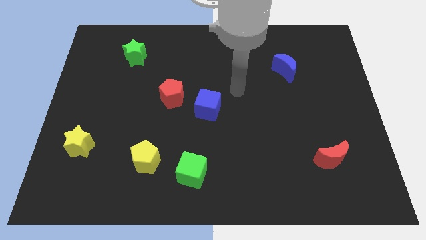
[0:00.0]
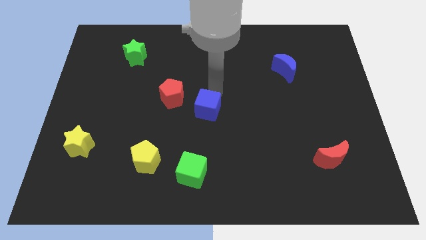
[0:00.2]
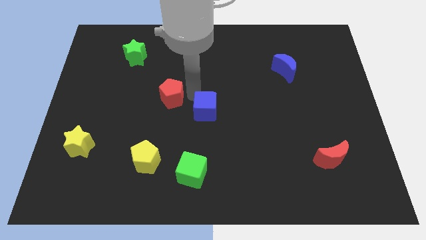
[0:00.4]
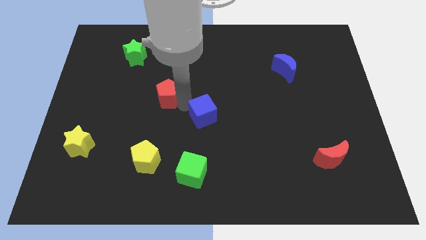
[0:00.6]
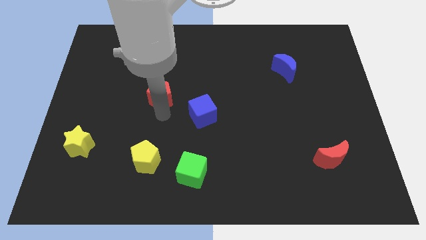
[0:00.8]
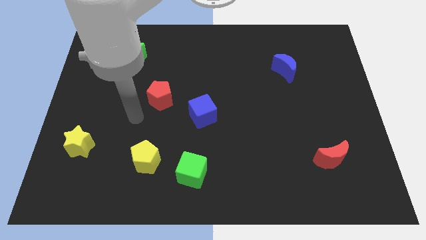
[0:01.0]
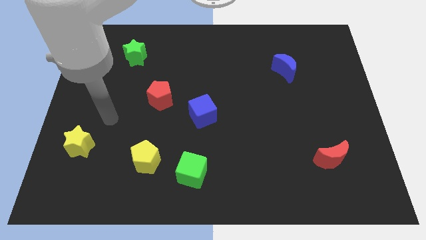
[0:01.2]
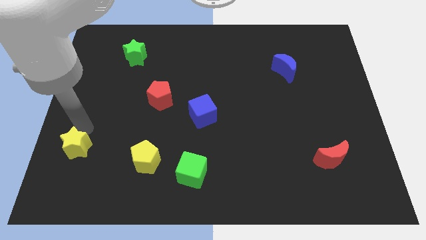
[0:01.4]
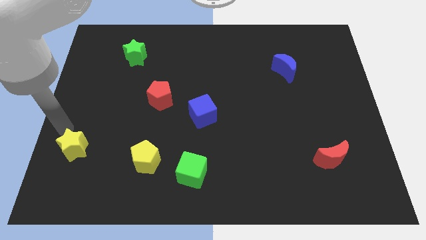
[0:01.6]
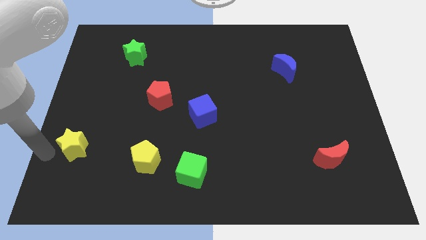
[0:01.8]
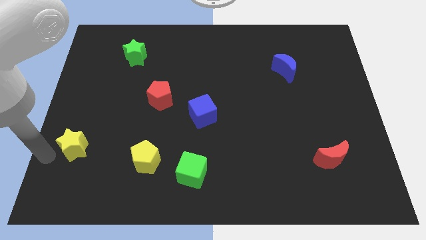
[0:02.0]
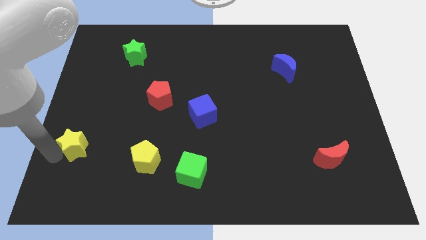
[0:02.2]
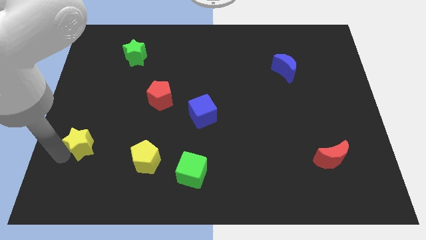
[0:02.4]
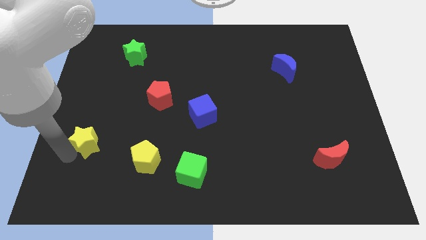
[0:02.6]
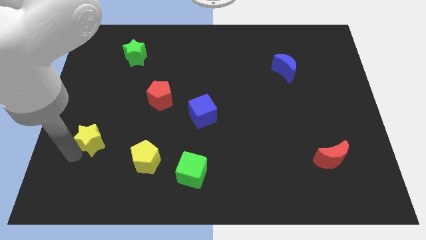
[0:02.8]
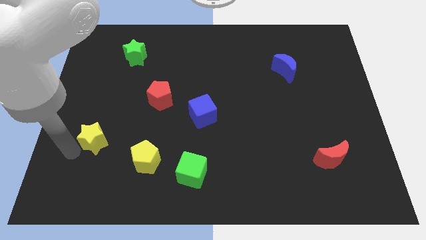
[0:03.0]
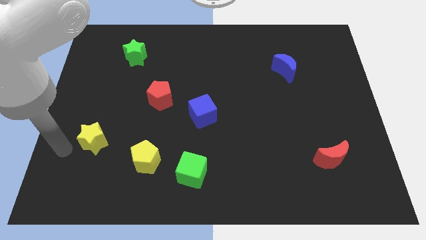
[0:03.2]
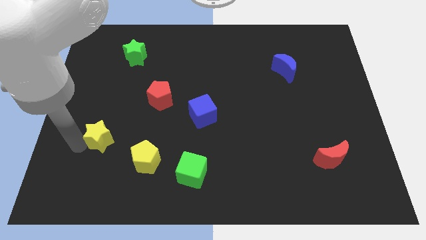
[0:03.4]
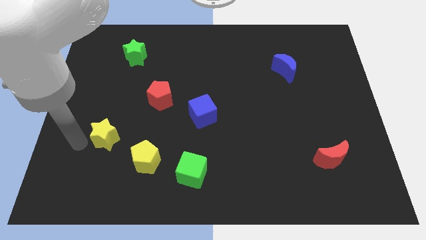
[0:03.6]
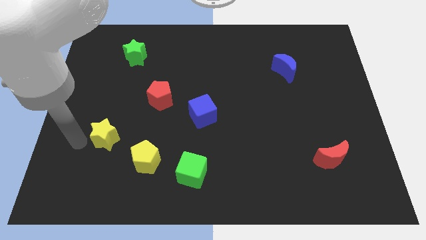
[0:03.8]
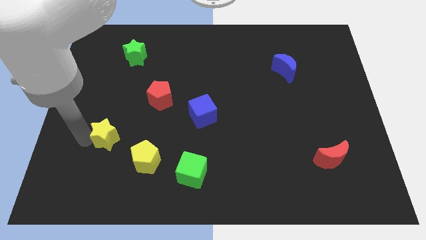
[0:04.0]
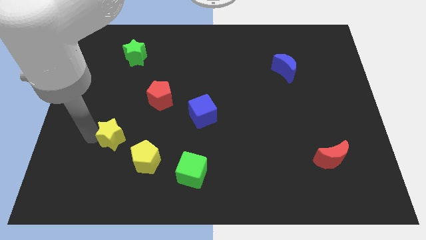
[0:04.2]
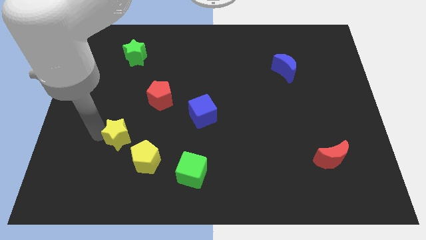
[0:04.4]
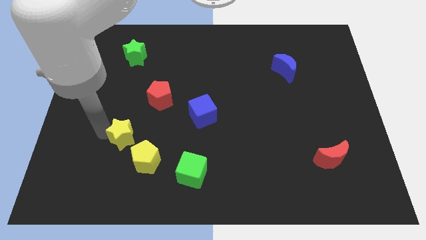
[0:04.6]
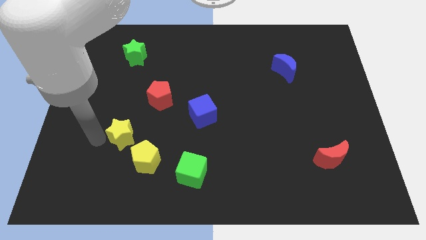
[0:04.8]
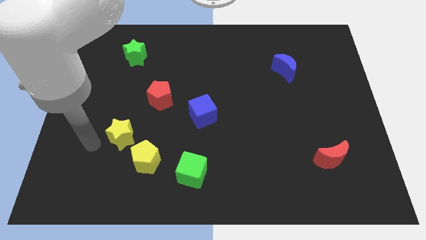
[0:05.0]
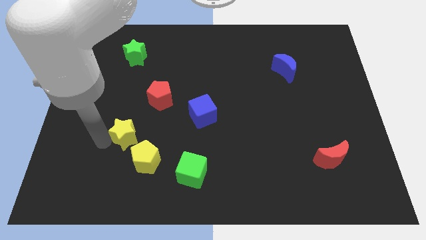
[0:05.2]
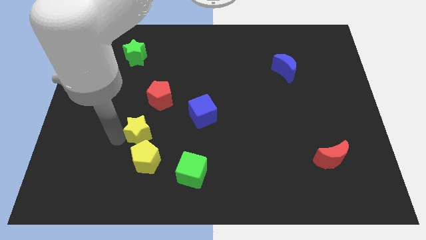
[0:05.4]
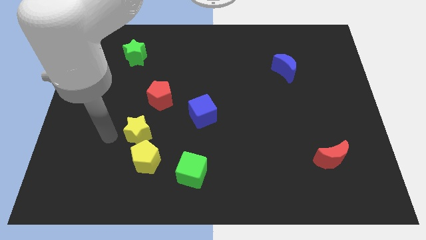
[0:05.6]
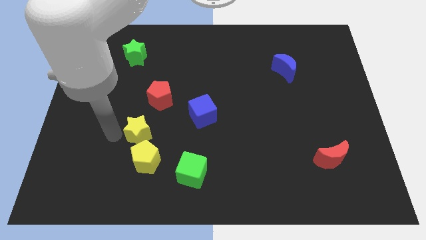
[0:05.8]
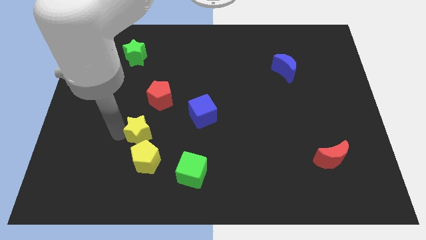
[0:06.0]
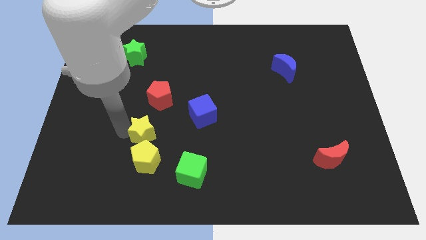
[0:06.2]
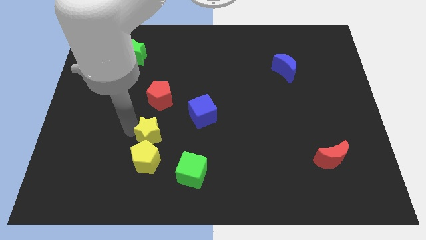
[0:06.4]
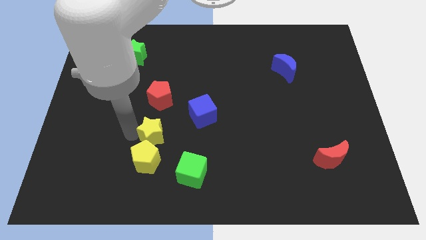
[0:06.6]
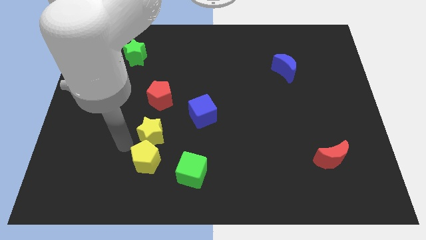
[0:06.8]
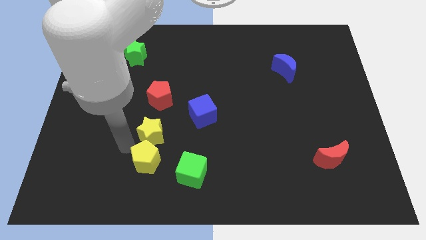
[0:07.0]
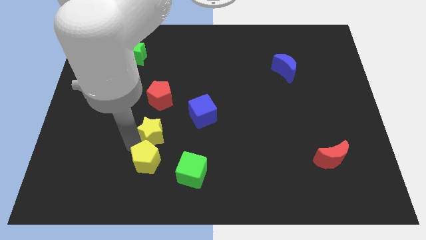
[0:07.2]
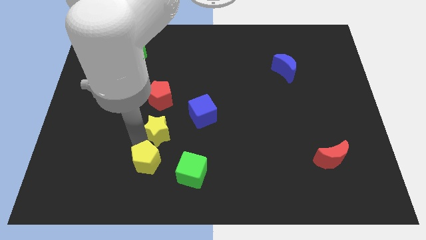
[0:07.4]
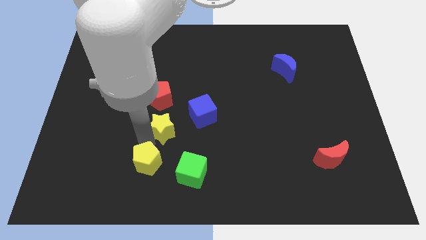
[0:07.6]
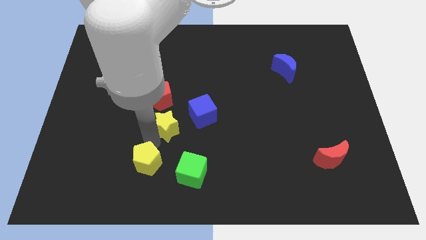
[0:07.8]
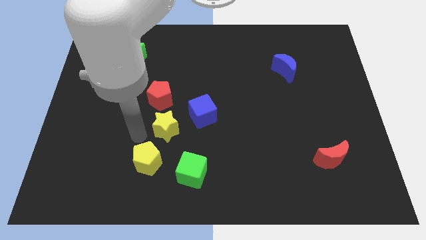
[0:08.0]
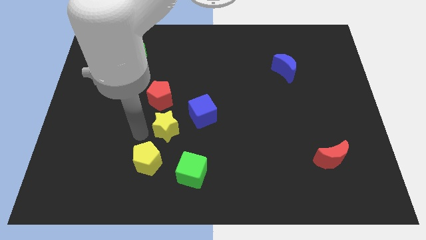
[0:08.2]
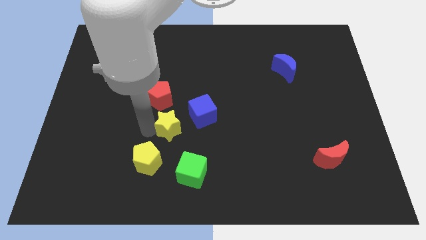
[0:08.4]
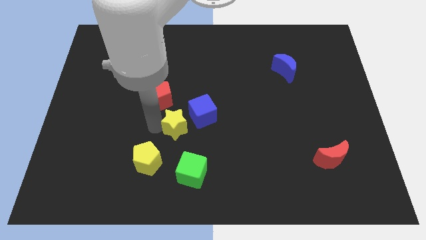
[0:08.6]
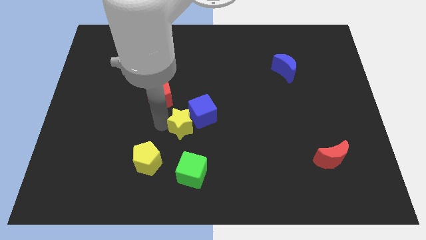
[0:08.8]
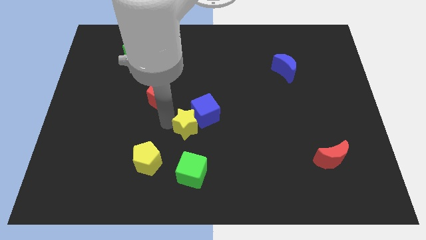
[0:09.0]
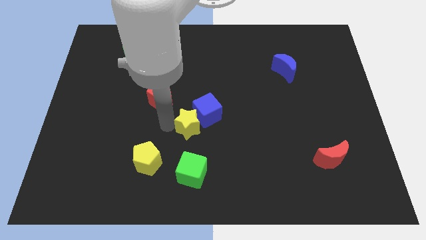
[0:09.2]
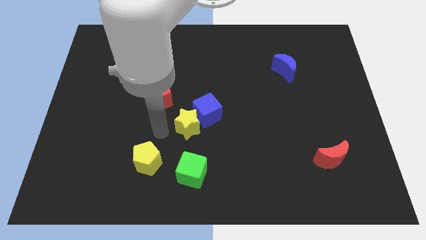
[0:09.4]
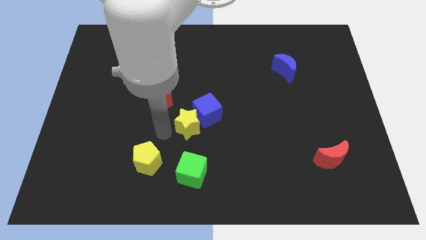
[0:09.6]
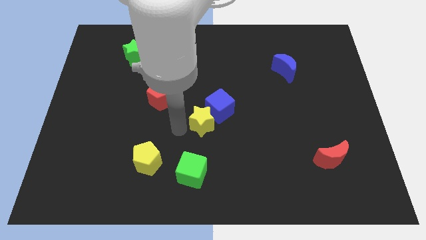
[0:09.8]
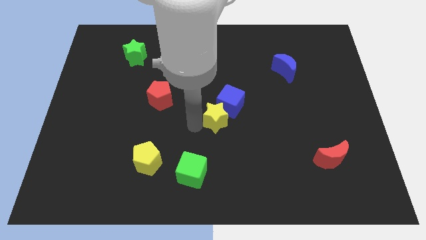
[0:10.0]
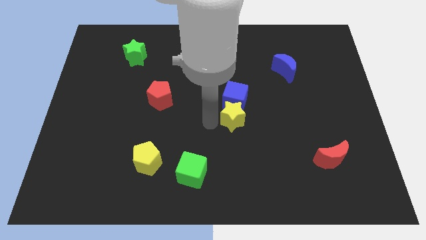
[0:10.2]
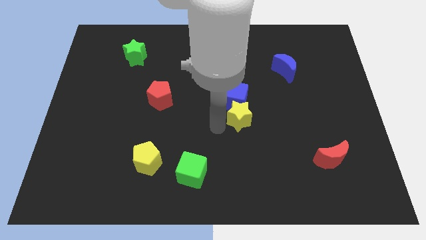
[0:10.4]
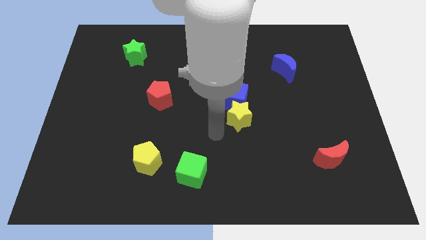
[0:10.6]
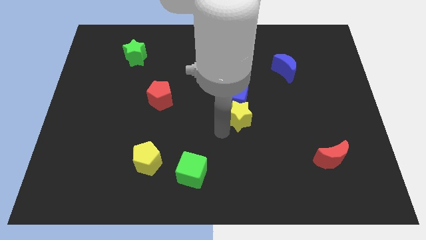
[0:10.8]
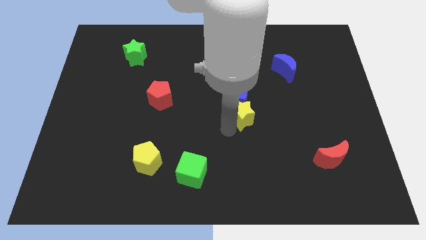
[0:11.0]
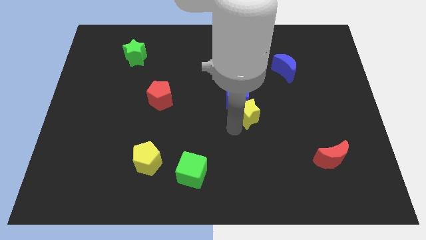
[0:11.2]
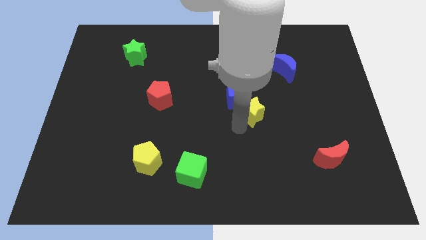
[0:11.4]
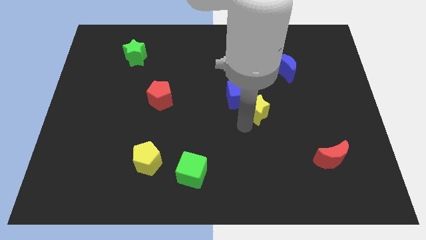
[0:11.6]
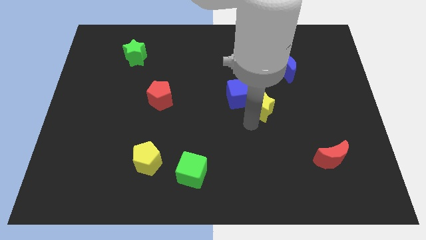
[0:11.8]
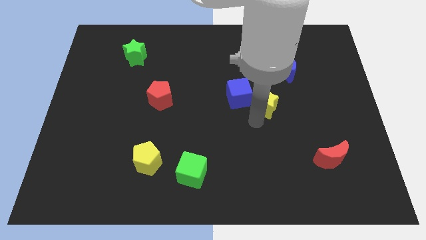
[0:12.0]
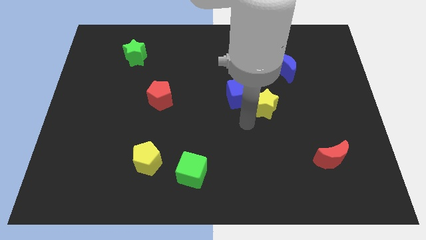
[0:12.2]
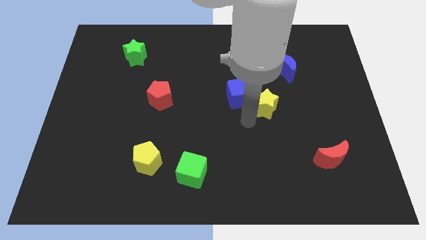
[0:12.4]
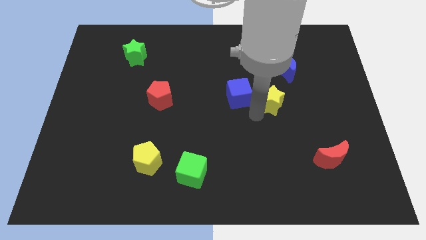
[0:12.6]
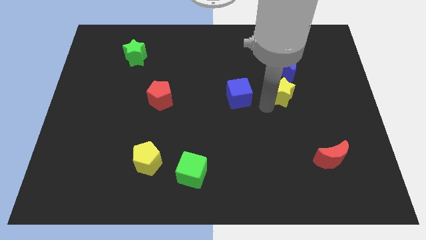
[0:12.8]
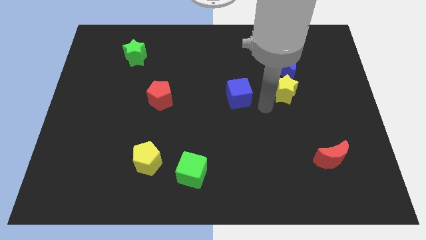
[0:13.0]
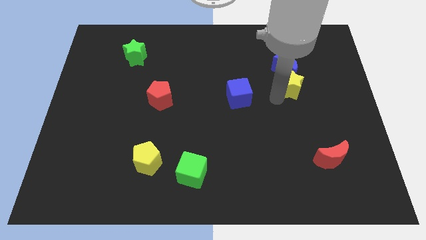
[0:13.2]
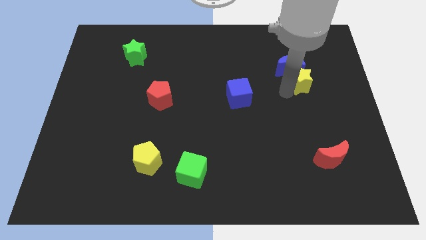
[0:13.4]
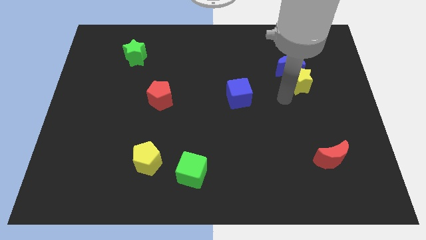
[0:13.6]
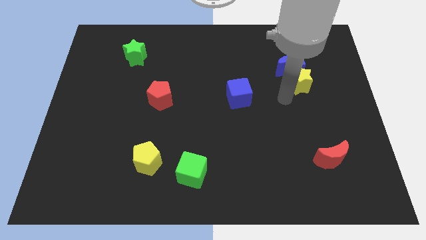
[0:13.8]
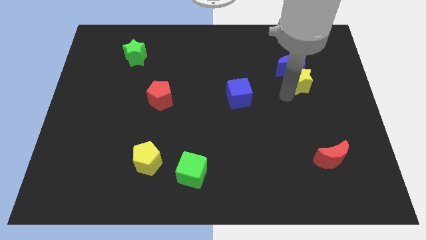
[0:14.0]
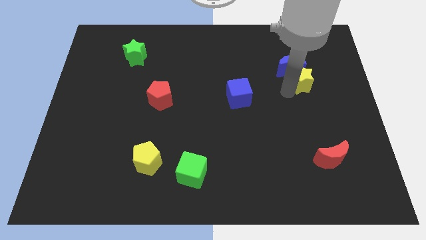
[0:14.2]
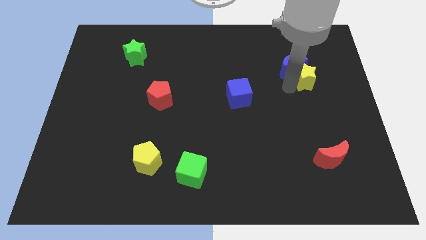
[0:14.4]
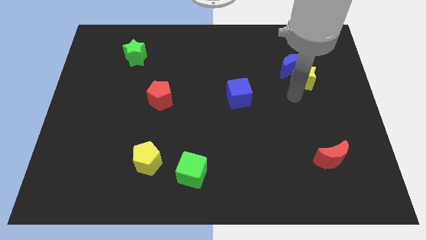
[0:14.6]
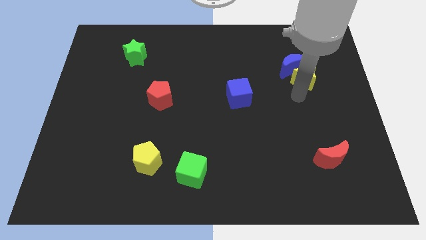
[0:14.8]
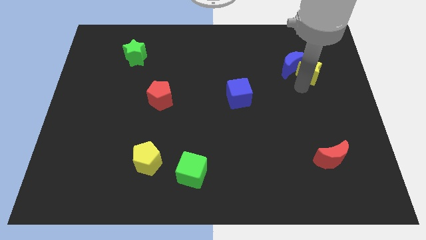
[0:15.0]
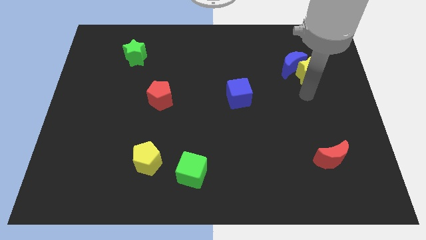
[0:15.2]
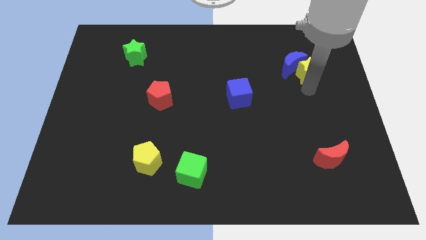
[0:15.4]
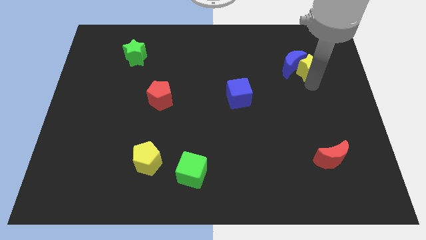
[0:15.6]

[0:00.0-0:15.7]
slide the yellow star to the top right side of the blue moon
